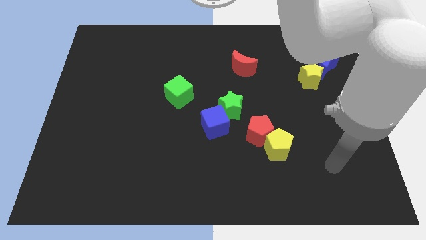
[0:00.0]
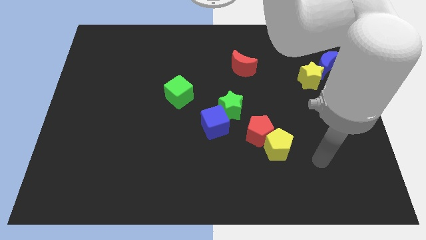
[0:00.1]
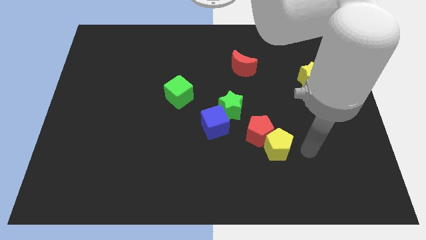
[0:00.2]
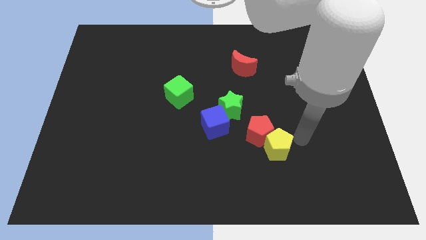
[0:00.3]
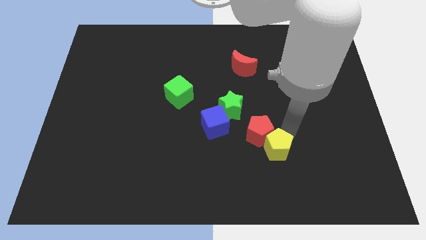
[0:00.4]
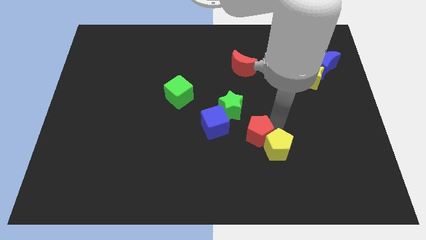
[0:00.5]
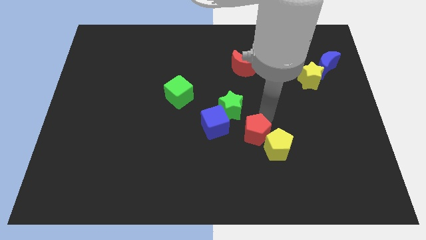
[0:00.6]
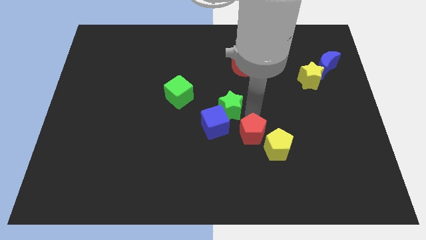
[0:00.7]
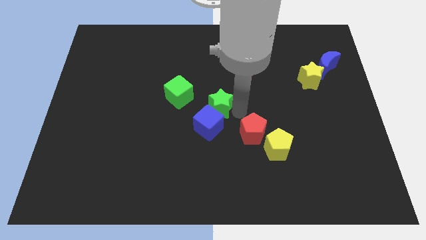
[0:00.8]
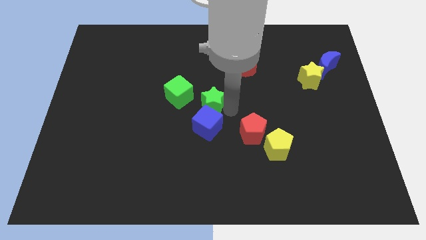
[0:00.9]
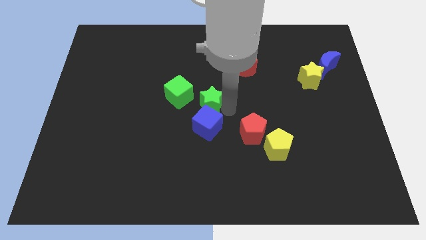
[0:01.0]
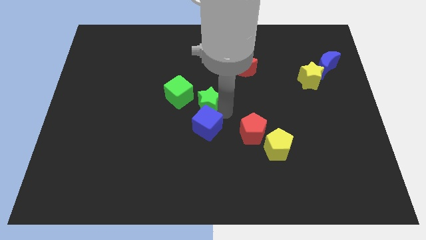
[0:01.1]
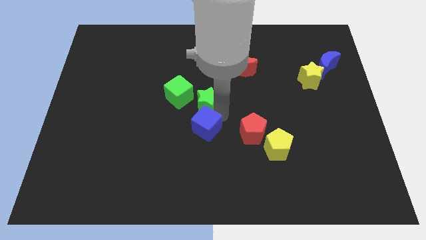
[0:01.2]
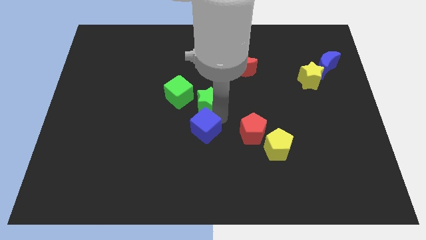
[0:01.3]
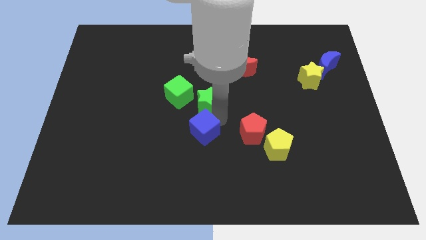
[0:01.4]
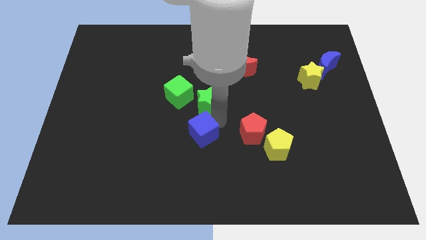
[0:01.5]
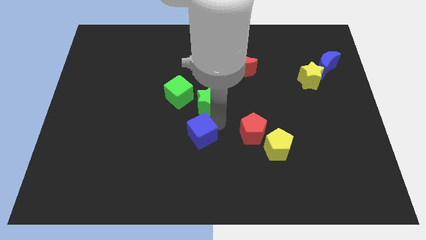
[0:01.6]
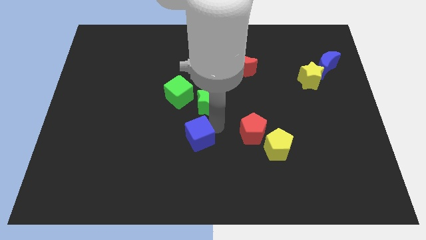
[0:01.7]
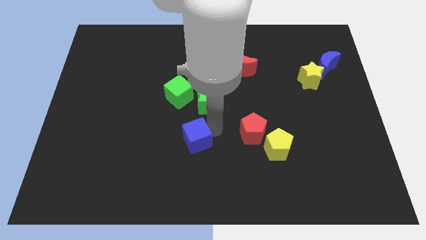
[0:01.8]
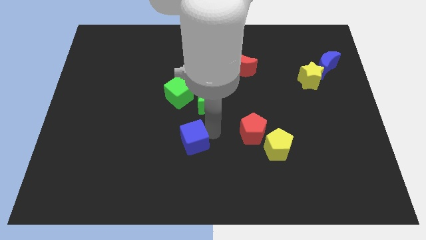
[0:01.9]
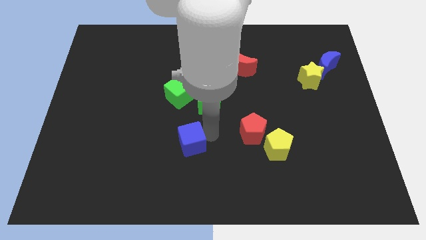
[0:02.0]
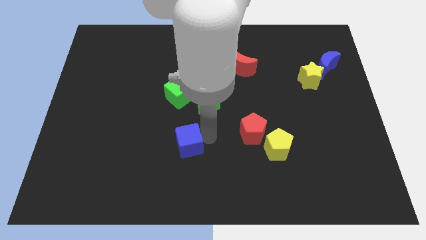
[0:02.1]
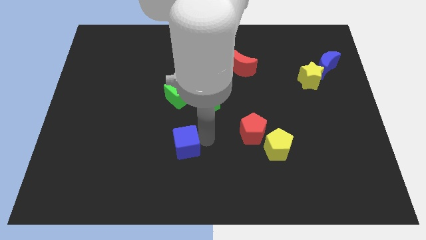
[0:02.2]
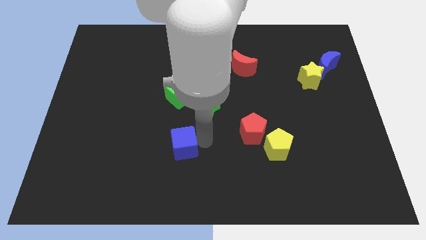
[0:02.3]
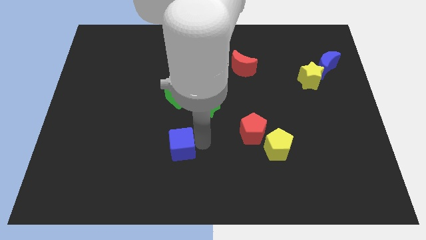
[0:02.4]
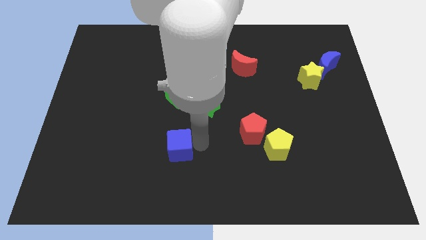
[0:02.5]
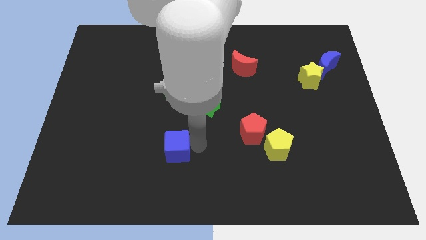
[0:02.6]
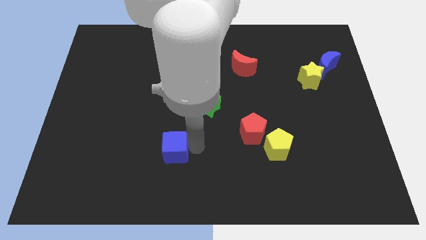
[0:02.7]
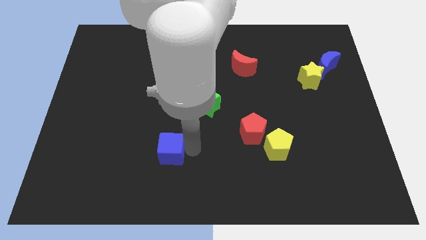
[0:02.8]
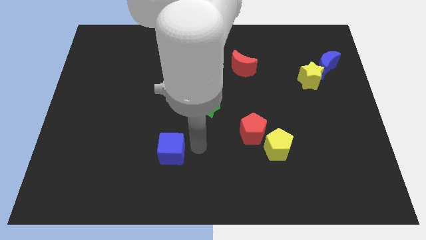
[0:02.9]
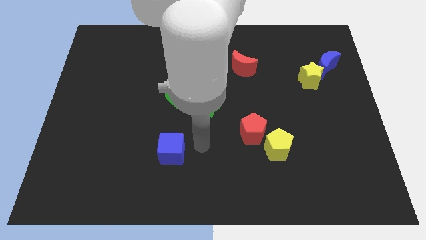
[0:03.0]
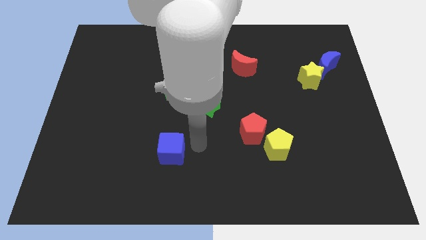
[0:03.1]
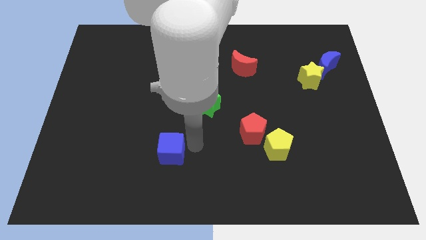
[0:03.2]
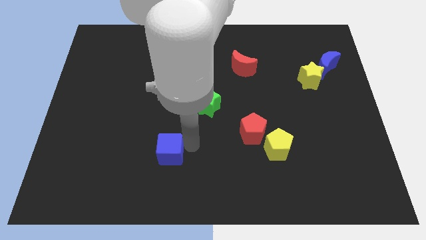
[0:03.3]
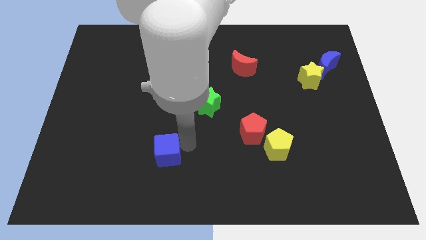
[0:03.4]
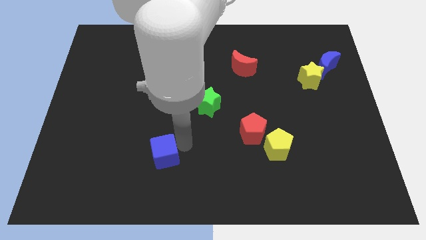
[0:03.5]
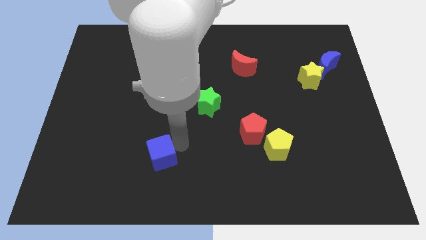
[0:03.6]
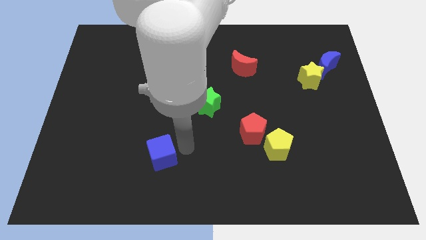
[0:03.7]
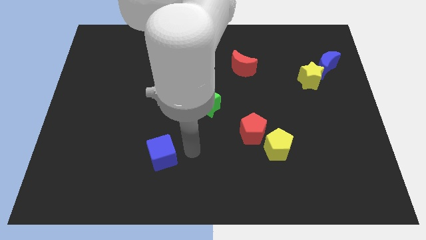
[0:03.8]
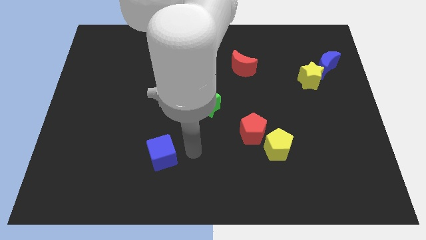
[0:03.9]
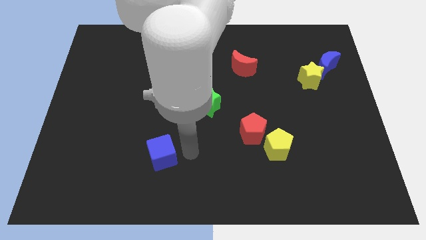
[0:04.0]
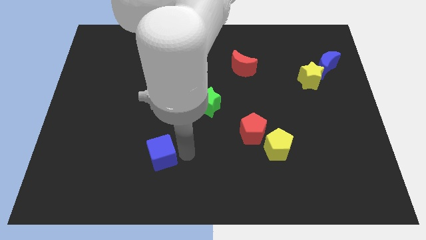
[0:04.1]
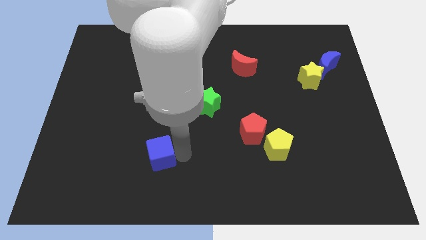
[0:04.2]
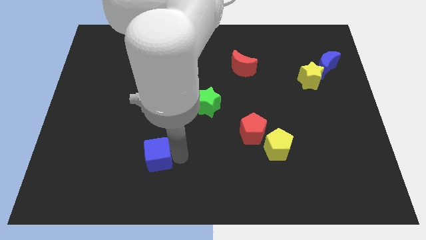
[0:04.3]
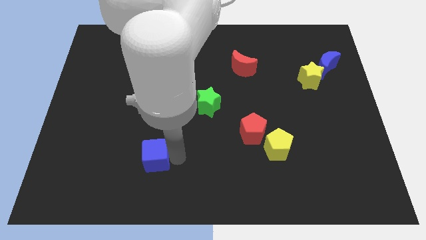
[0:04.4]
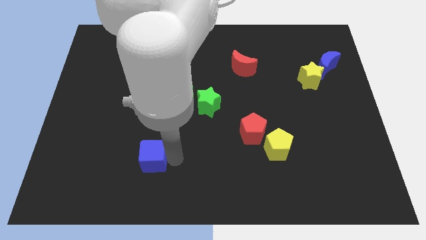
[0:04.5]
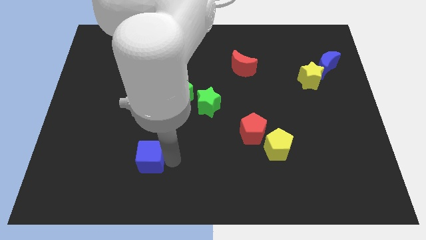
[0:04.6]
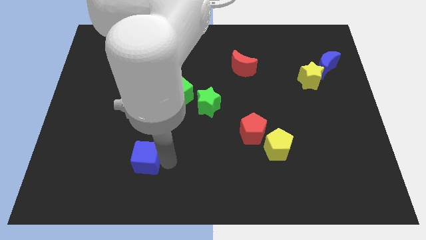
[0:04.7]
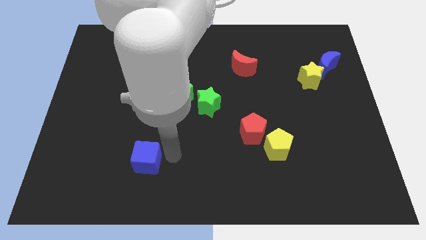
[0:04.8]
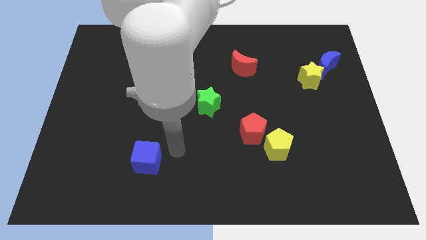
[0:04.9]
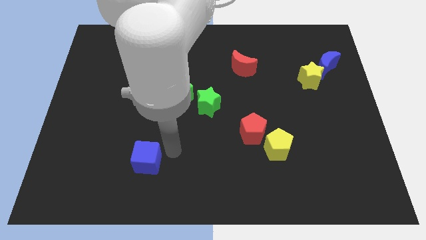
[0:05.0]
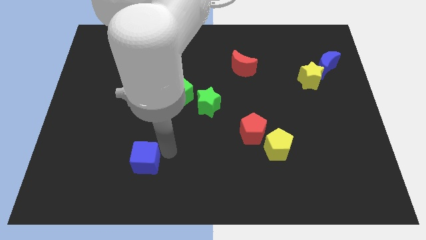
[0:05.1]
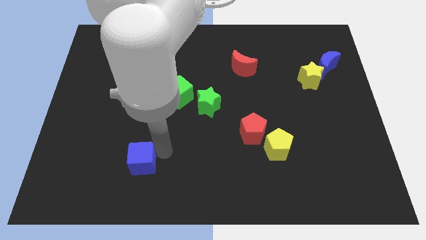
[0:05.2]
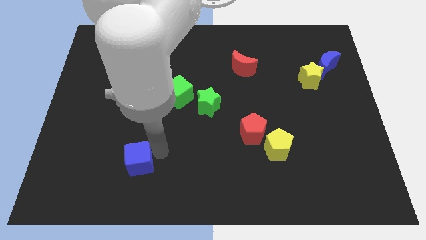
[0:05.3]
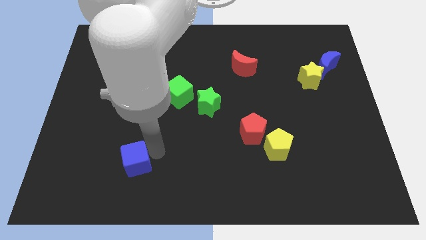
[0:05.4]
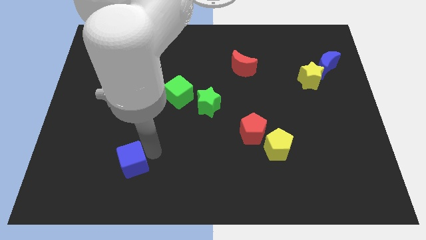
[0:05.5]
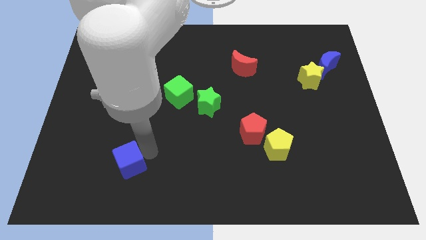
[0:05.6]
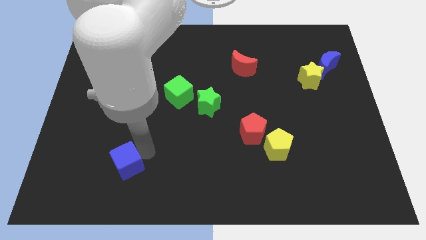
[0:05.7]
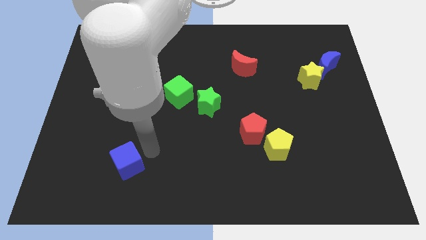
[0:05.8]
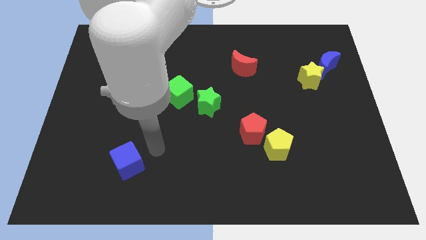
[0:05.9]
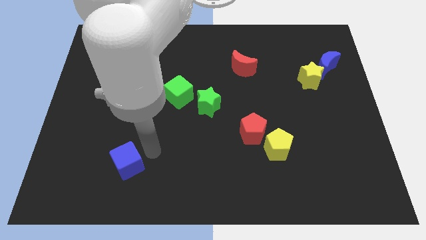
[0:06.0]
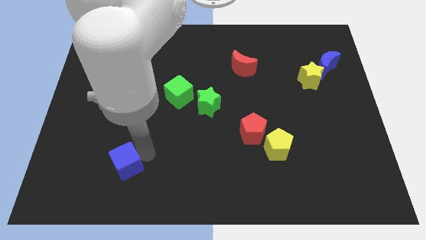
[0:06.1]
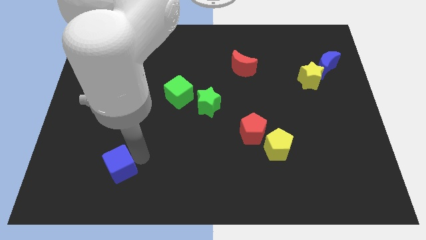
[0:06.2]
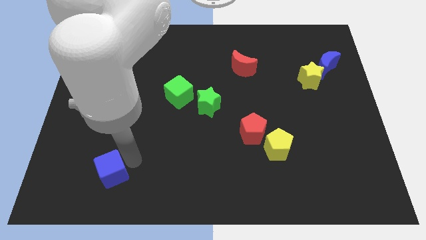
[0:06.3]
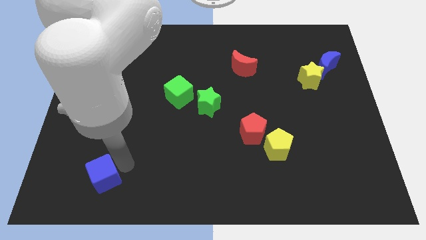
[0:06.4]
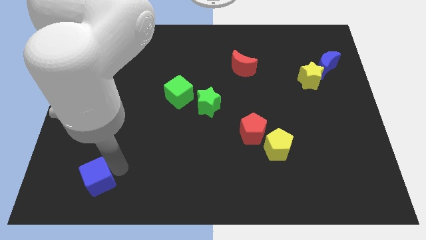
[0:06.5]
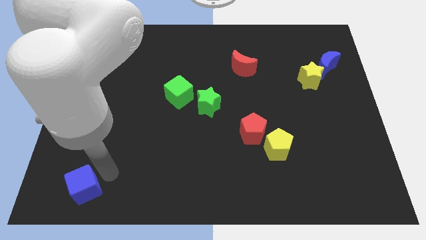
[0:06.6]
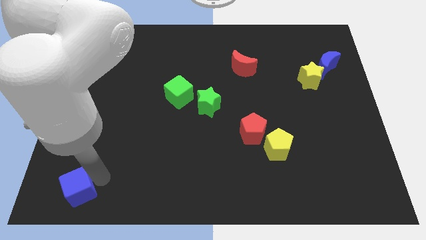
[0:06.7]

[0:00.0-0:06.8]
put the blue cube to the bottom left

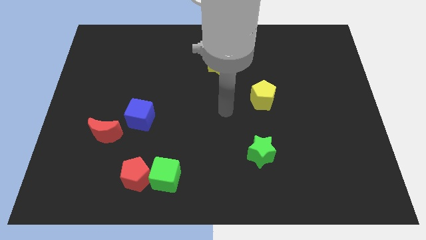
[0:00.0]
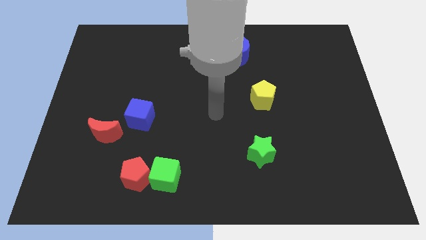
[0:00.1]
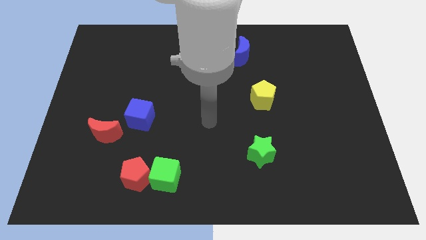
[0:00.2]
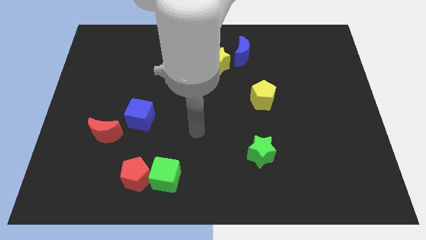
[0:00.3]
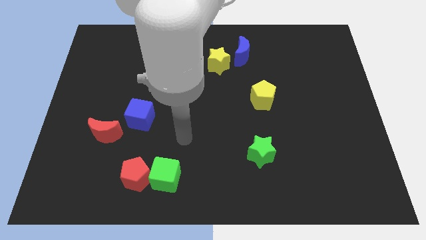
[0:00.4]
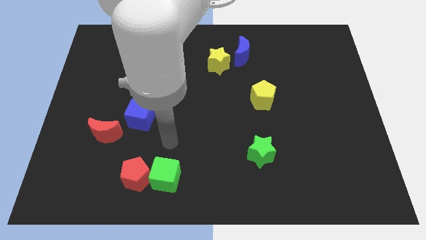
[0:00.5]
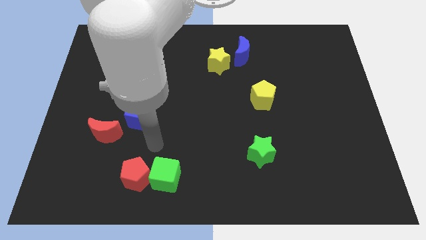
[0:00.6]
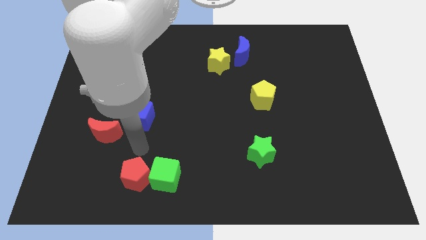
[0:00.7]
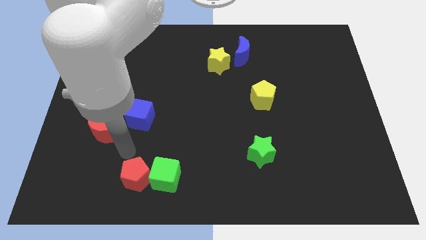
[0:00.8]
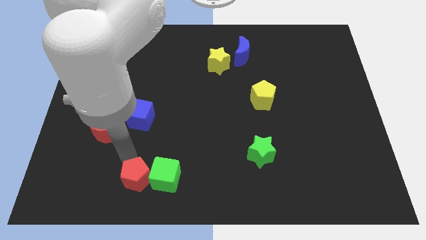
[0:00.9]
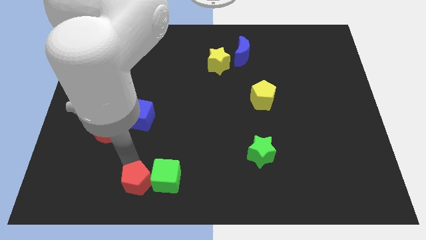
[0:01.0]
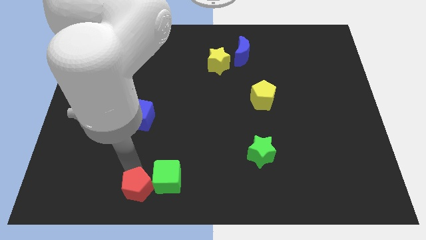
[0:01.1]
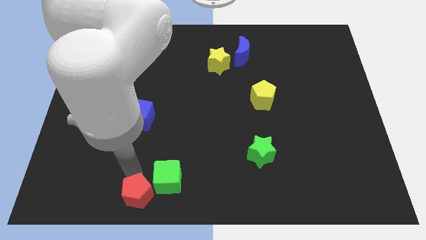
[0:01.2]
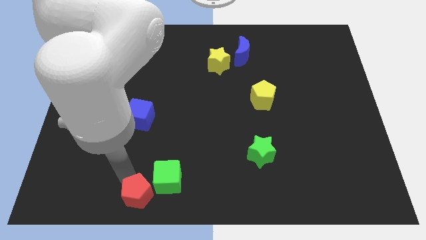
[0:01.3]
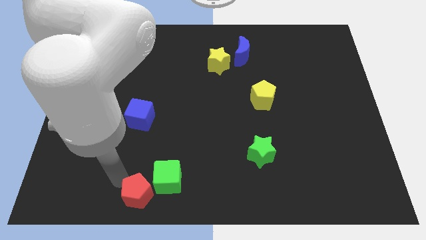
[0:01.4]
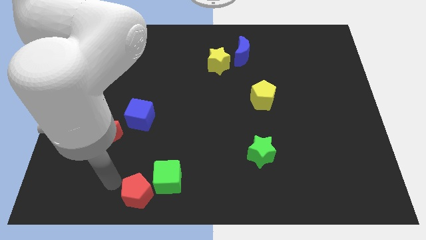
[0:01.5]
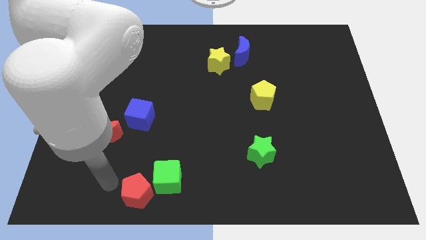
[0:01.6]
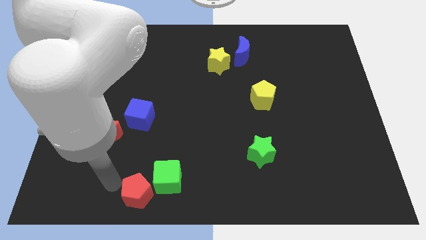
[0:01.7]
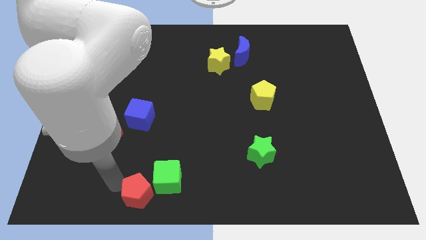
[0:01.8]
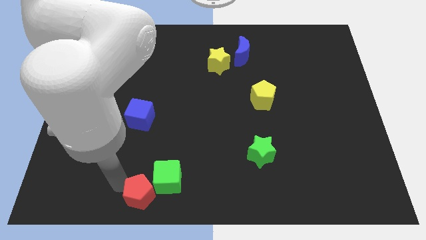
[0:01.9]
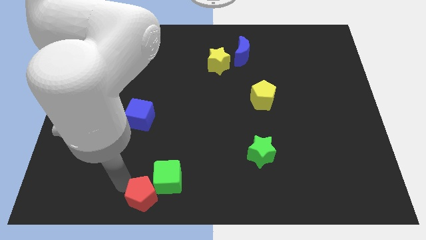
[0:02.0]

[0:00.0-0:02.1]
move the red pentagon to the bottom
